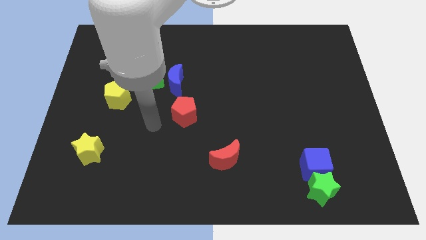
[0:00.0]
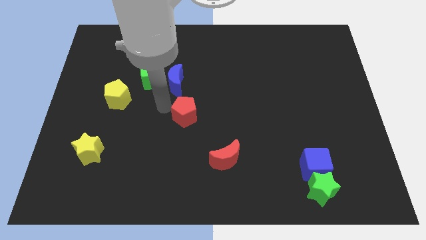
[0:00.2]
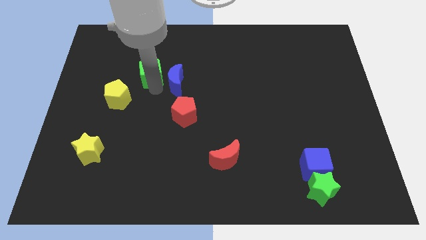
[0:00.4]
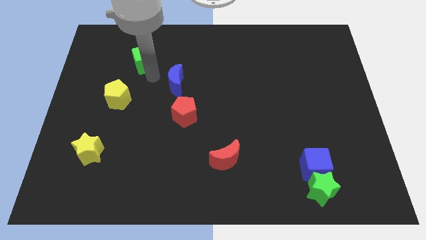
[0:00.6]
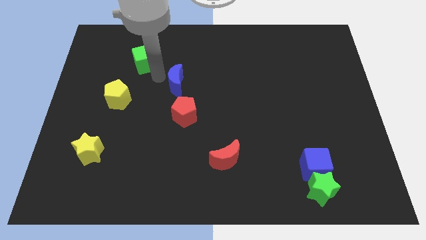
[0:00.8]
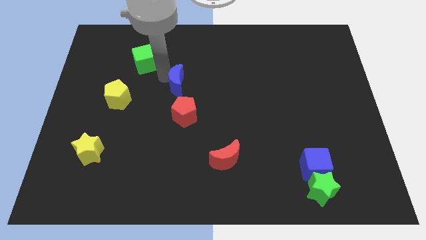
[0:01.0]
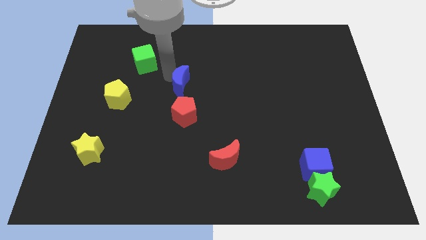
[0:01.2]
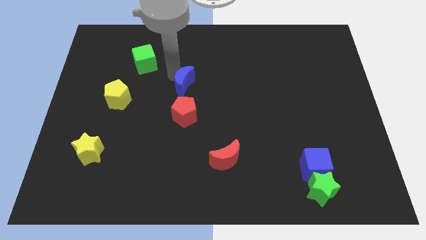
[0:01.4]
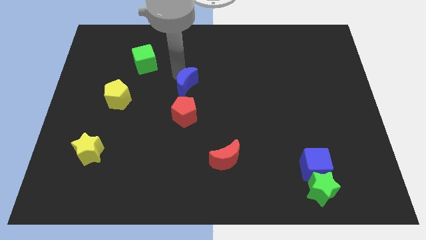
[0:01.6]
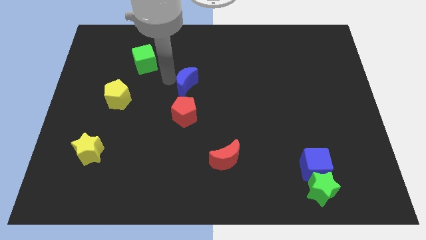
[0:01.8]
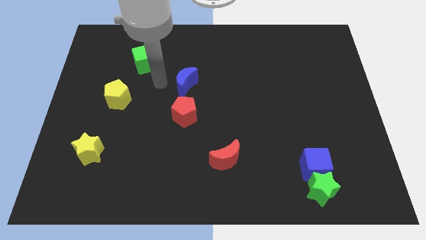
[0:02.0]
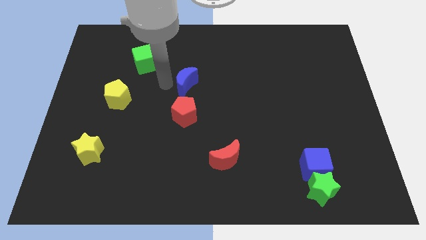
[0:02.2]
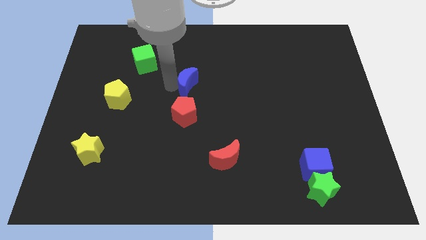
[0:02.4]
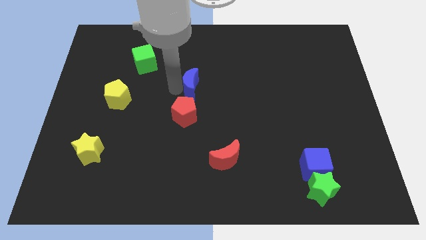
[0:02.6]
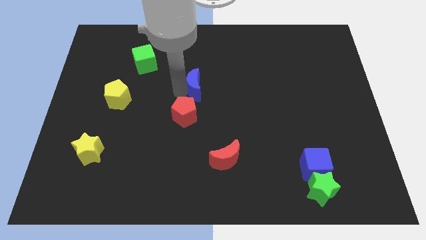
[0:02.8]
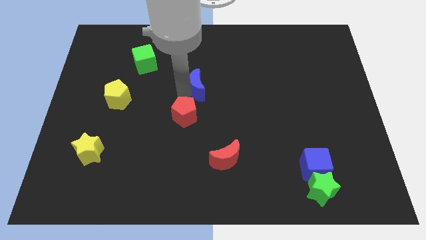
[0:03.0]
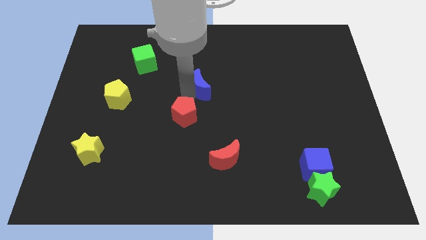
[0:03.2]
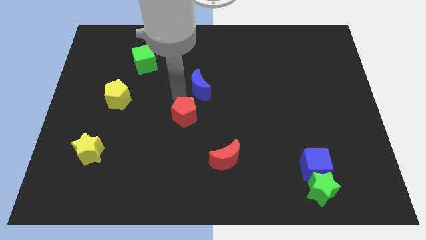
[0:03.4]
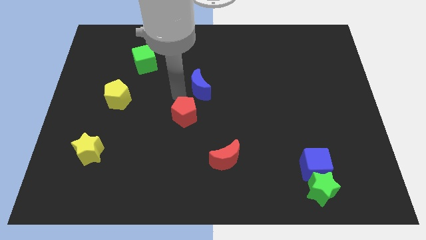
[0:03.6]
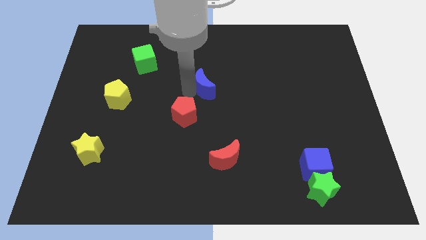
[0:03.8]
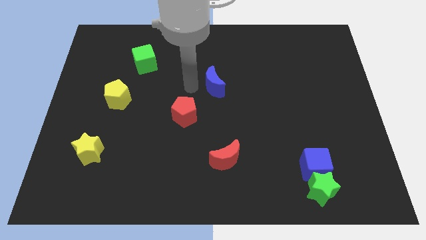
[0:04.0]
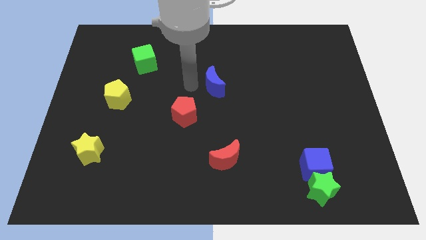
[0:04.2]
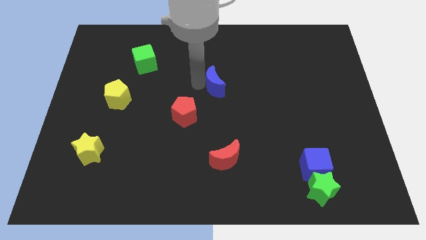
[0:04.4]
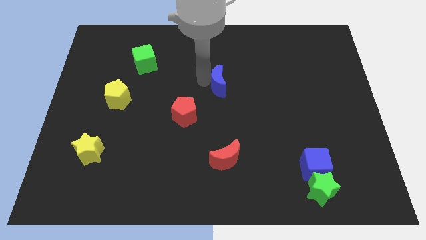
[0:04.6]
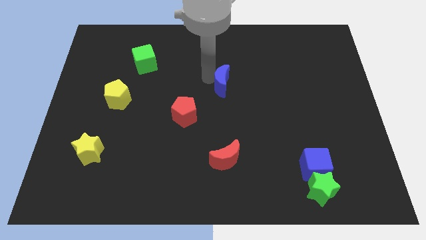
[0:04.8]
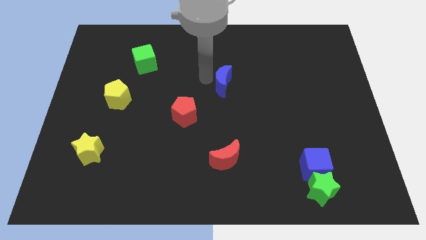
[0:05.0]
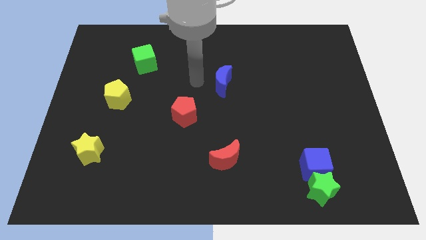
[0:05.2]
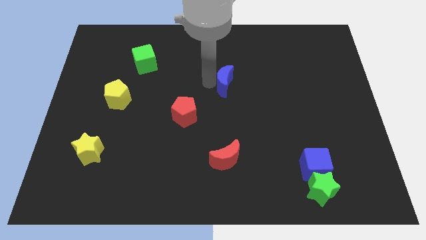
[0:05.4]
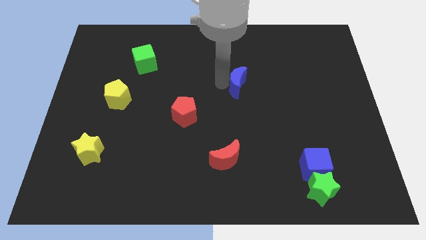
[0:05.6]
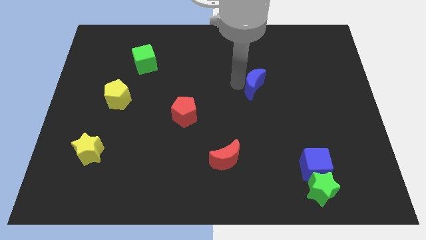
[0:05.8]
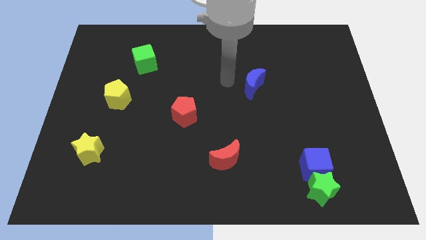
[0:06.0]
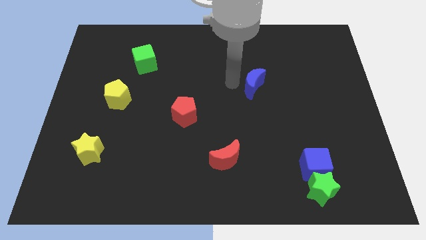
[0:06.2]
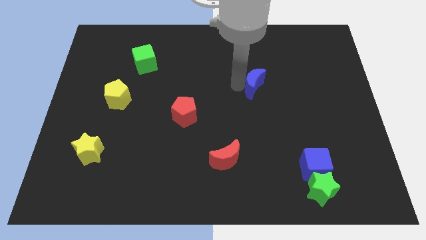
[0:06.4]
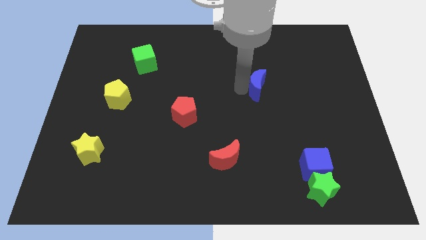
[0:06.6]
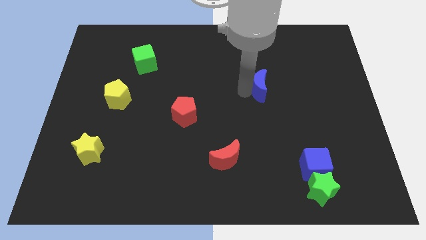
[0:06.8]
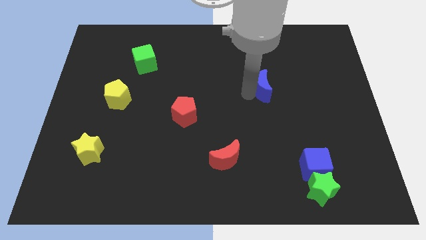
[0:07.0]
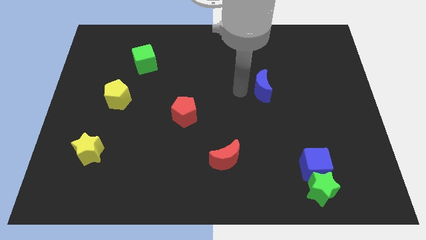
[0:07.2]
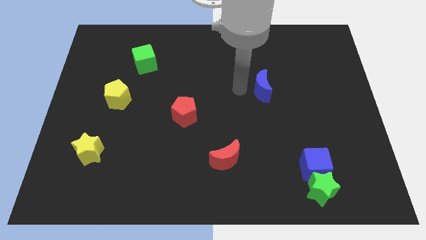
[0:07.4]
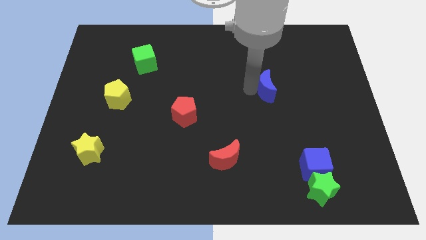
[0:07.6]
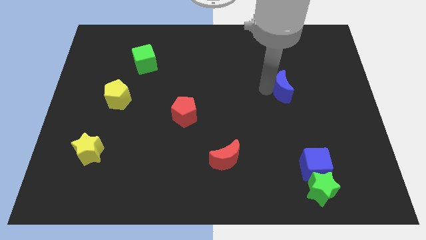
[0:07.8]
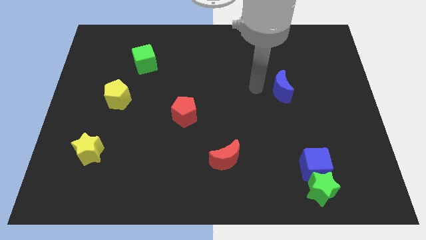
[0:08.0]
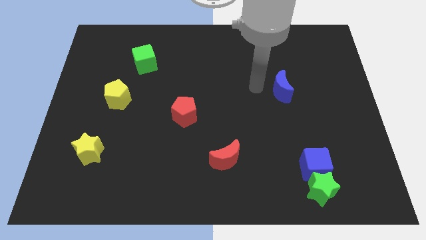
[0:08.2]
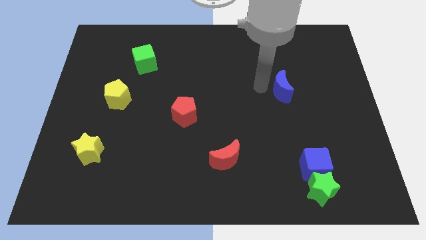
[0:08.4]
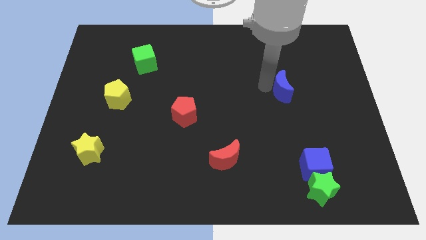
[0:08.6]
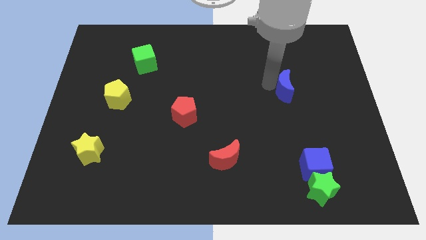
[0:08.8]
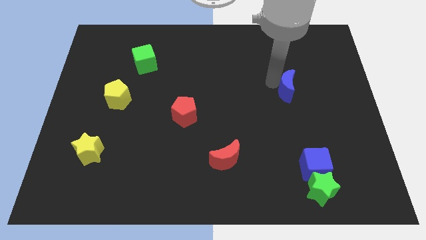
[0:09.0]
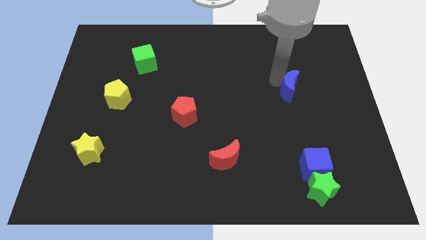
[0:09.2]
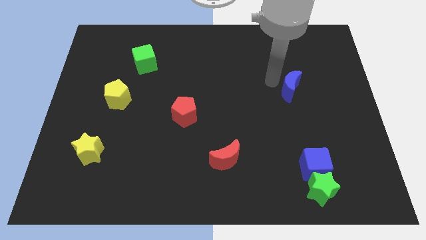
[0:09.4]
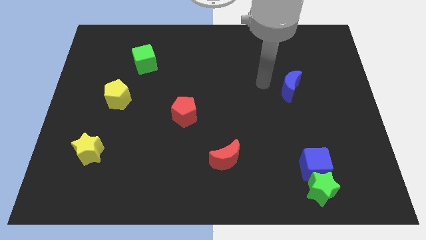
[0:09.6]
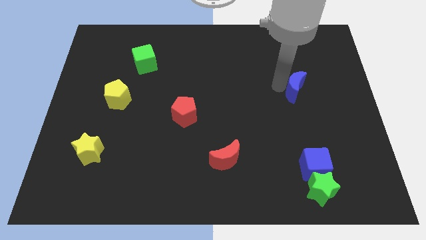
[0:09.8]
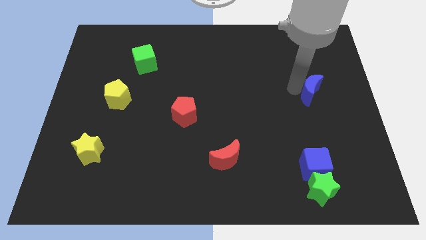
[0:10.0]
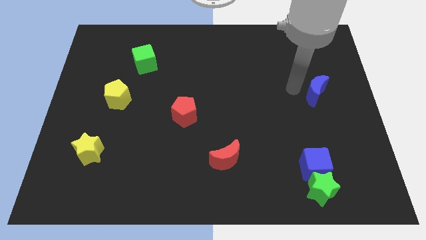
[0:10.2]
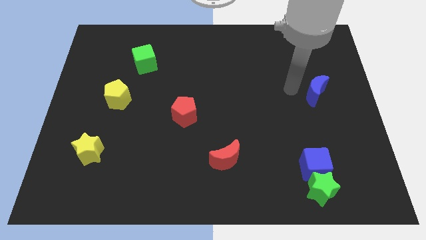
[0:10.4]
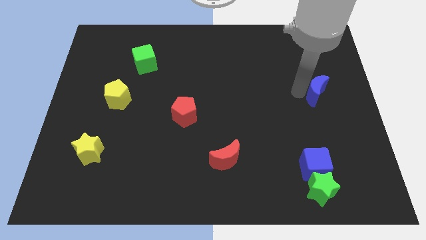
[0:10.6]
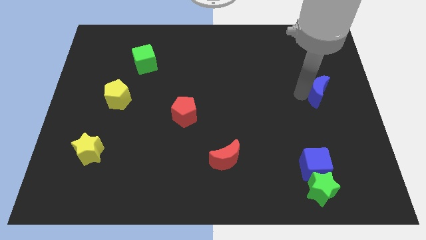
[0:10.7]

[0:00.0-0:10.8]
slide the blue moon to the right side of the board

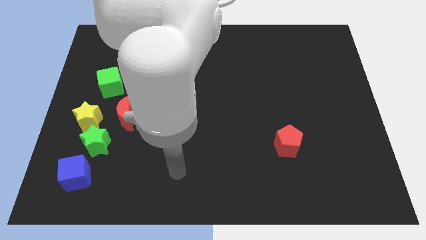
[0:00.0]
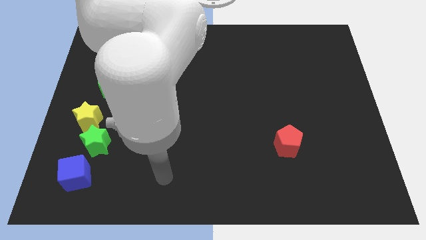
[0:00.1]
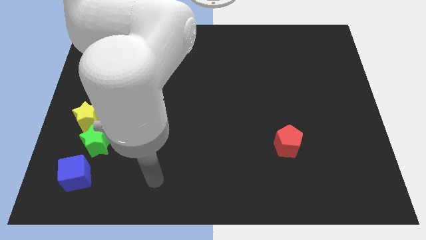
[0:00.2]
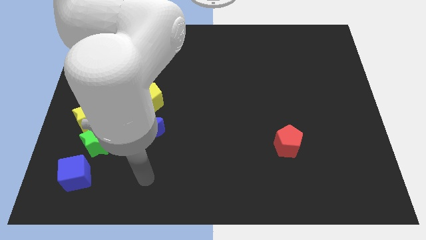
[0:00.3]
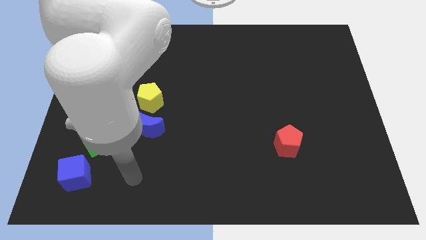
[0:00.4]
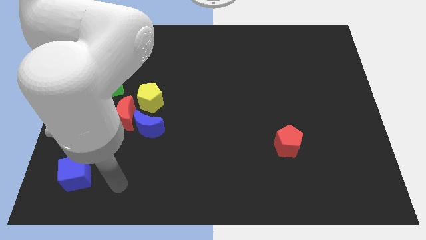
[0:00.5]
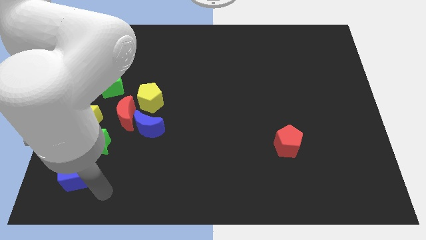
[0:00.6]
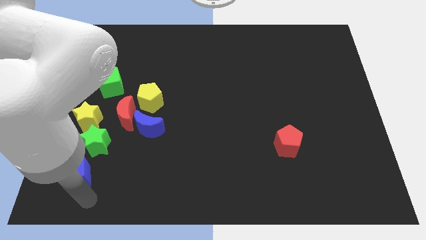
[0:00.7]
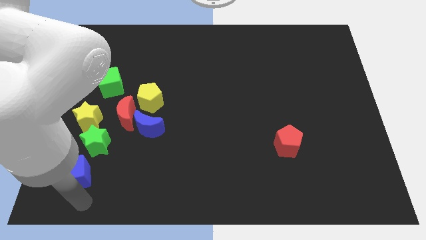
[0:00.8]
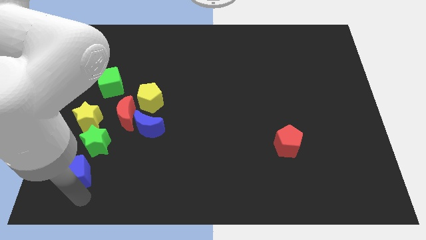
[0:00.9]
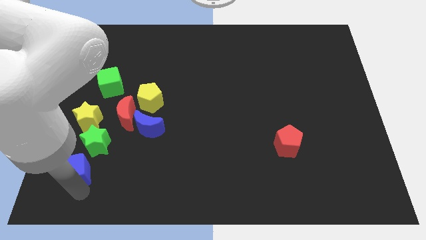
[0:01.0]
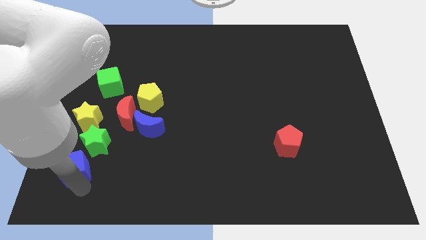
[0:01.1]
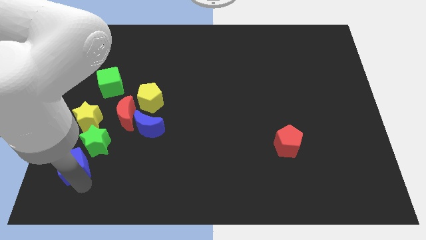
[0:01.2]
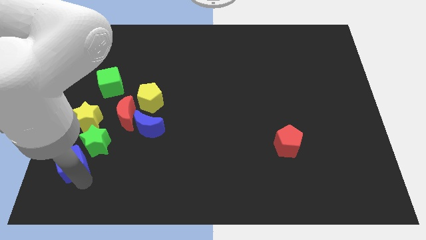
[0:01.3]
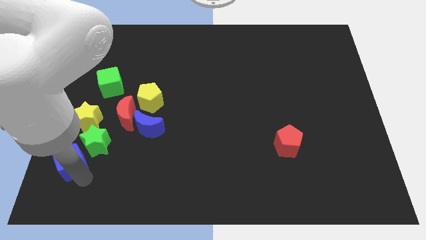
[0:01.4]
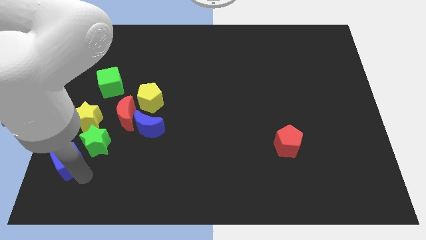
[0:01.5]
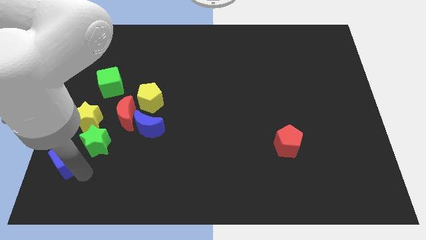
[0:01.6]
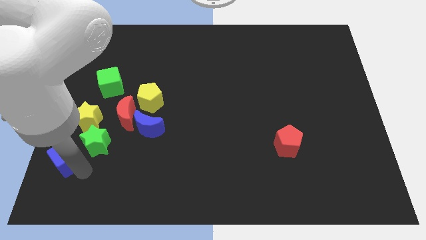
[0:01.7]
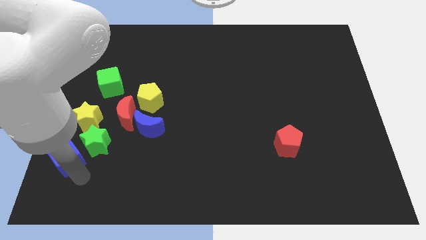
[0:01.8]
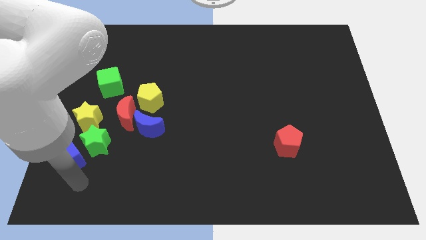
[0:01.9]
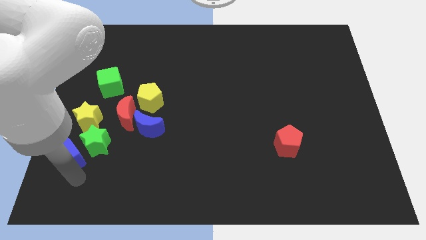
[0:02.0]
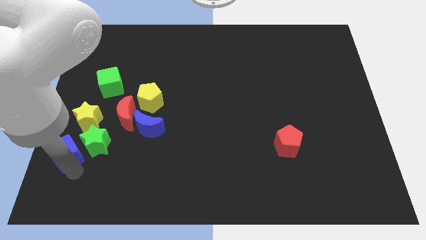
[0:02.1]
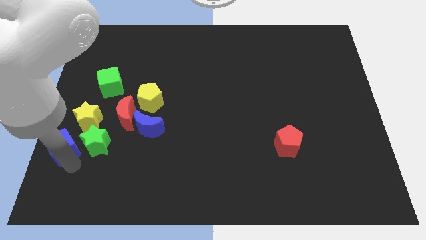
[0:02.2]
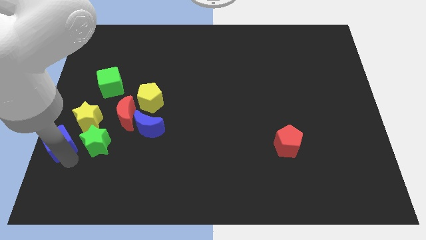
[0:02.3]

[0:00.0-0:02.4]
move the blue cube to the center left
